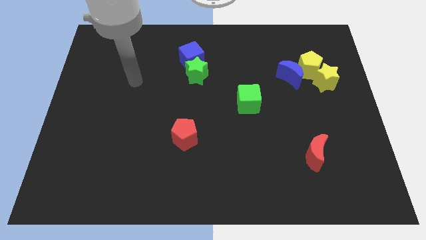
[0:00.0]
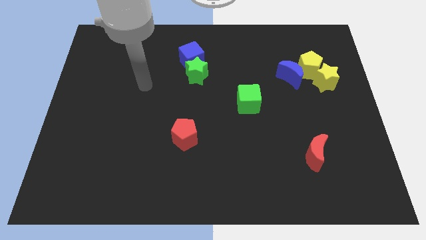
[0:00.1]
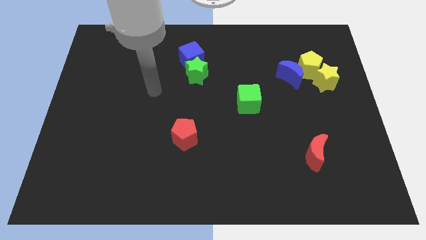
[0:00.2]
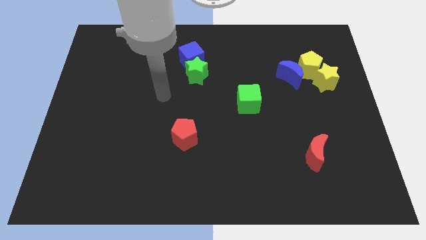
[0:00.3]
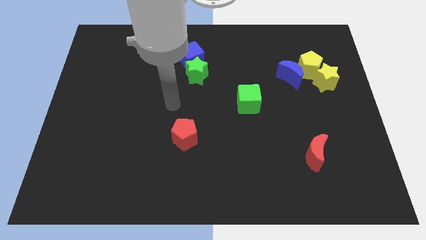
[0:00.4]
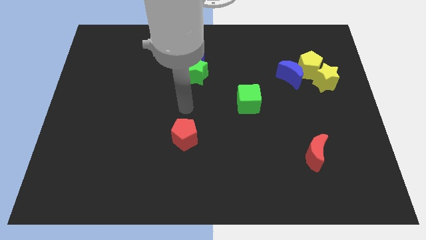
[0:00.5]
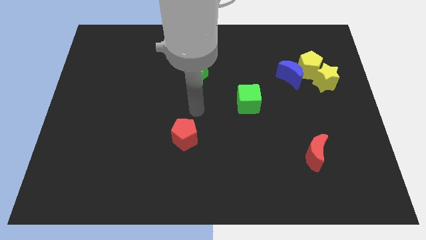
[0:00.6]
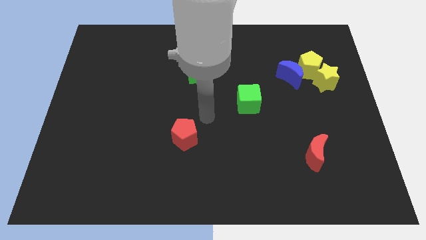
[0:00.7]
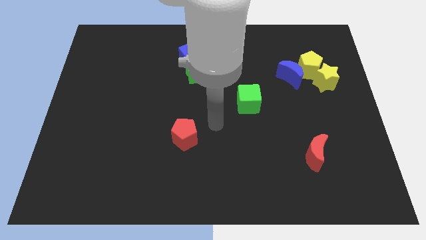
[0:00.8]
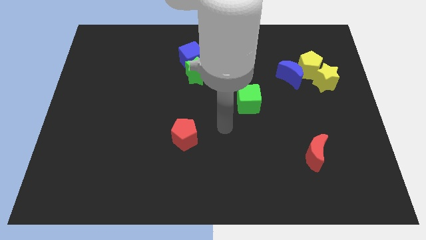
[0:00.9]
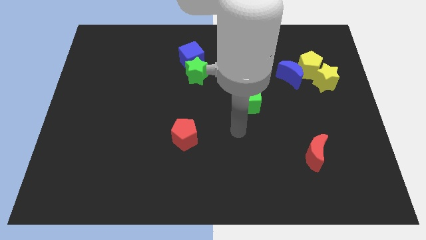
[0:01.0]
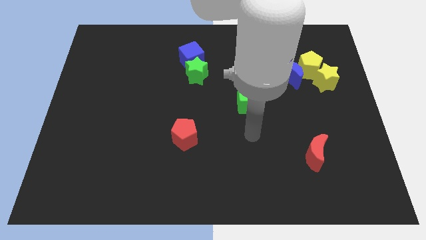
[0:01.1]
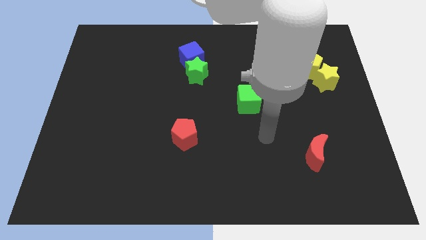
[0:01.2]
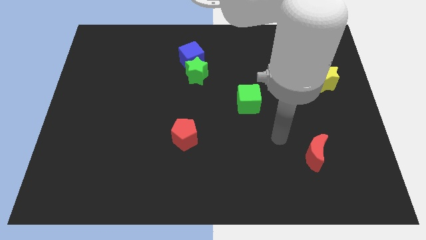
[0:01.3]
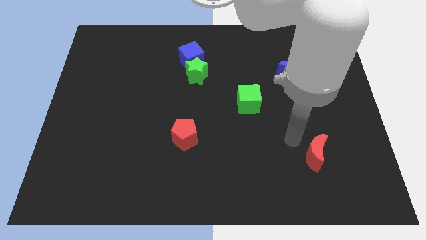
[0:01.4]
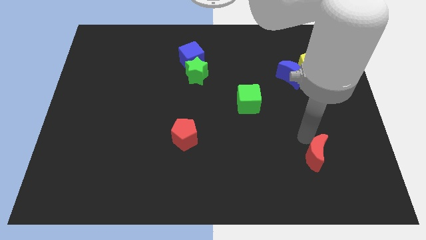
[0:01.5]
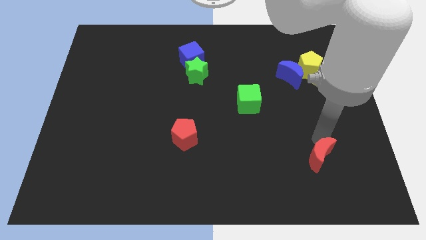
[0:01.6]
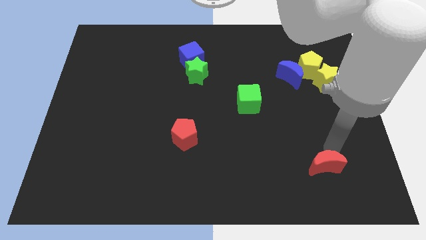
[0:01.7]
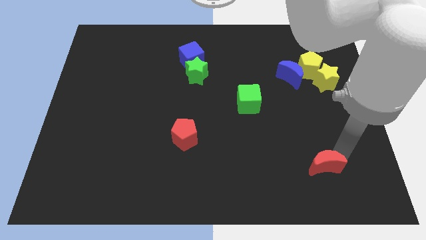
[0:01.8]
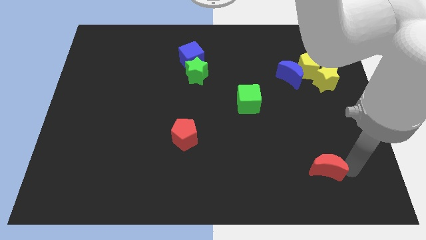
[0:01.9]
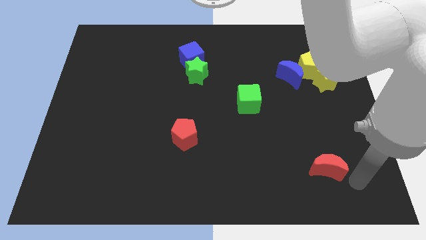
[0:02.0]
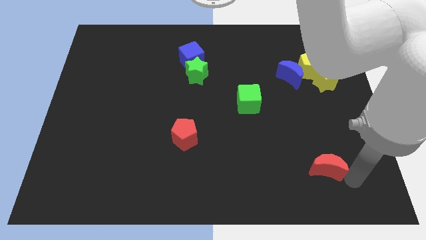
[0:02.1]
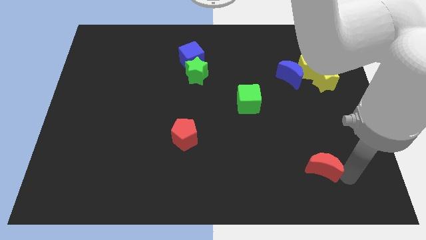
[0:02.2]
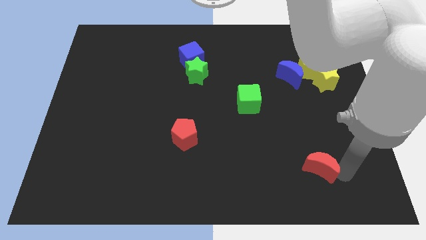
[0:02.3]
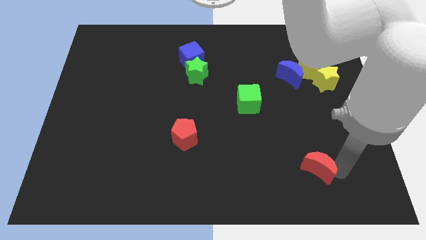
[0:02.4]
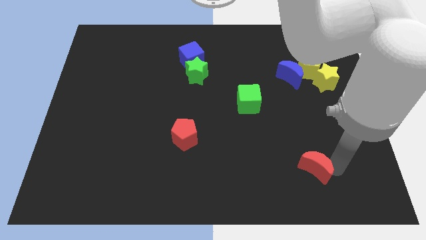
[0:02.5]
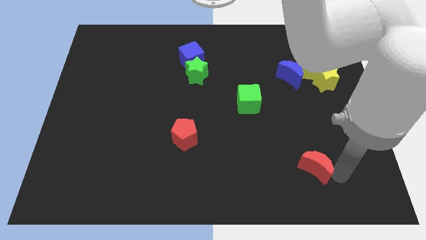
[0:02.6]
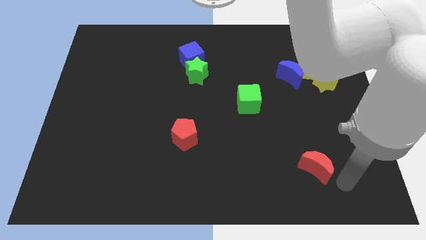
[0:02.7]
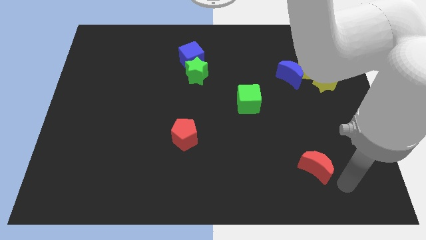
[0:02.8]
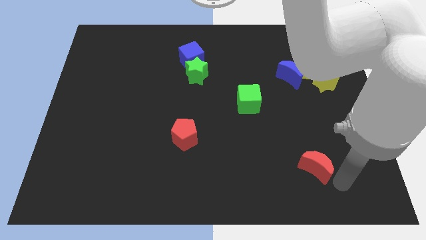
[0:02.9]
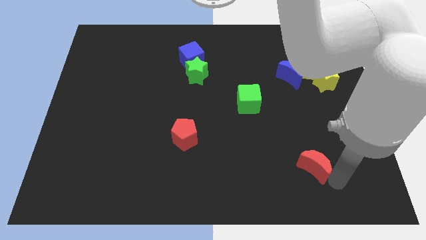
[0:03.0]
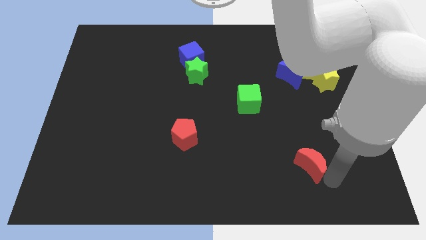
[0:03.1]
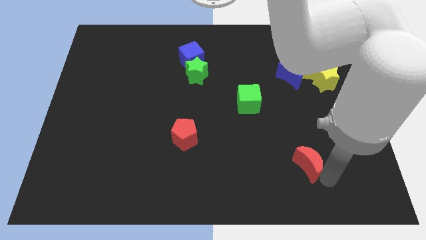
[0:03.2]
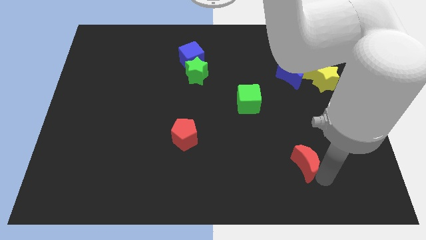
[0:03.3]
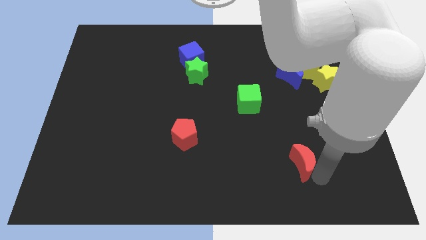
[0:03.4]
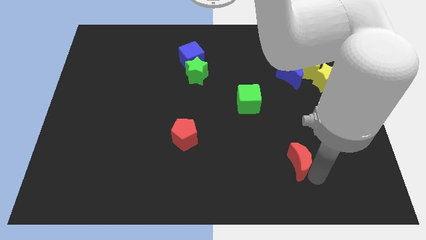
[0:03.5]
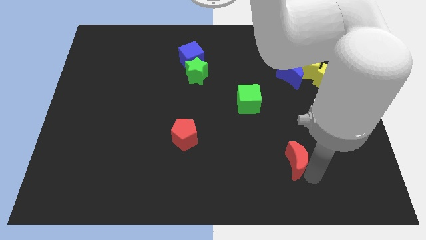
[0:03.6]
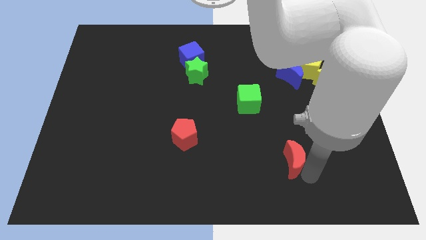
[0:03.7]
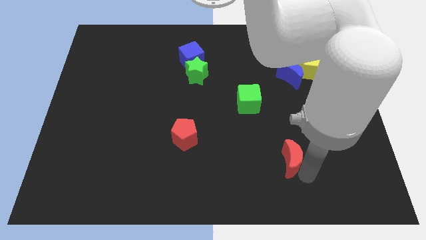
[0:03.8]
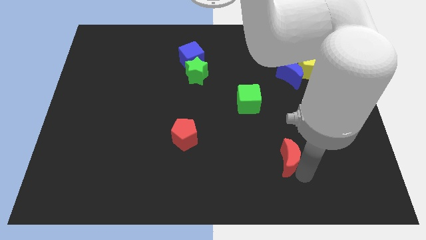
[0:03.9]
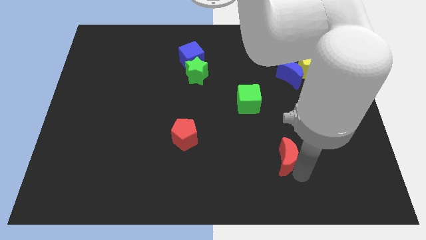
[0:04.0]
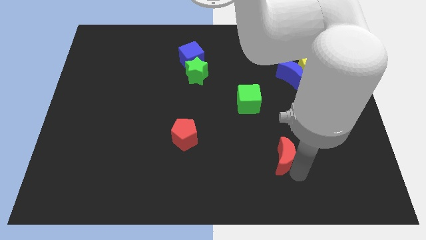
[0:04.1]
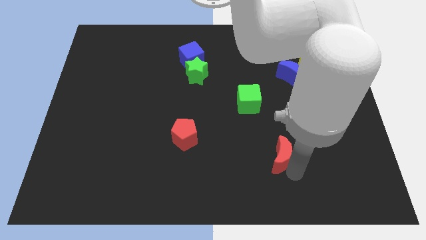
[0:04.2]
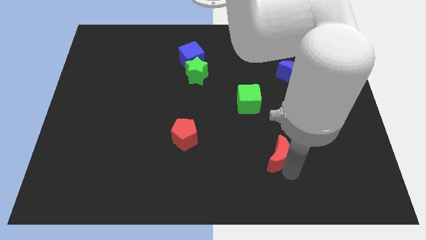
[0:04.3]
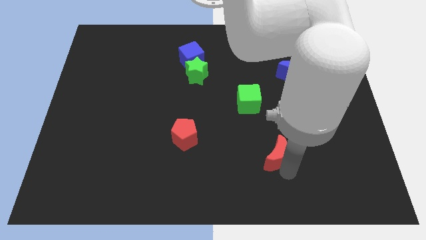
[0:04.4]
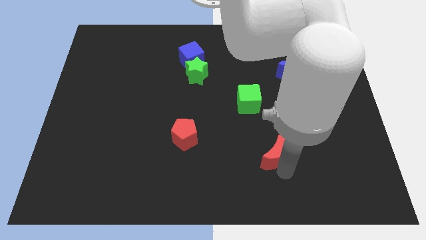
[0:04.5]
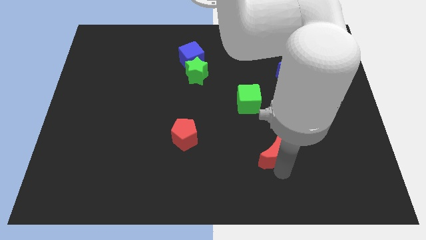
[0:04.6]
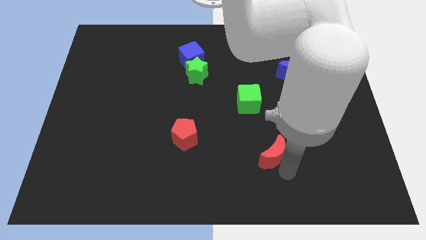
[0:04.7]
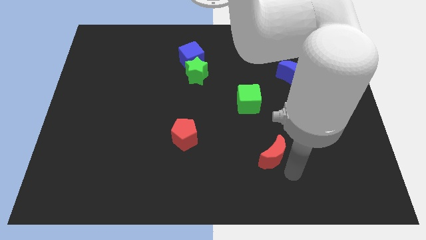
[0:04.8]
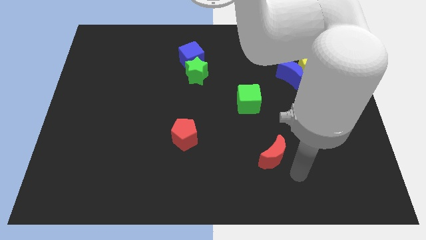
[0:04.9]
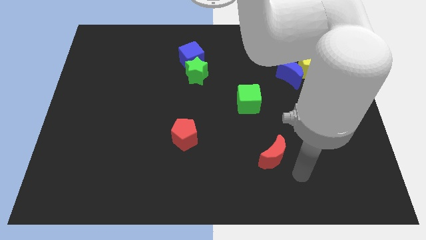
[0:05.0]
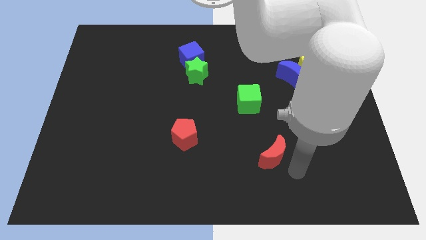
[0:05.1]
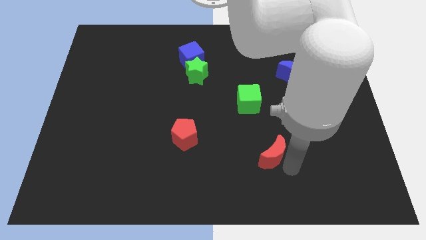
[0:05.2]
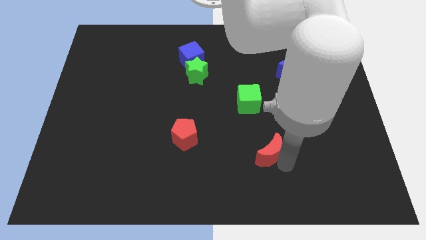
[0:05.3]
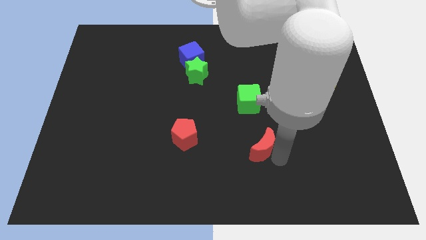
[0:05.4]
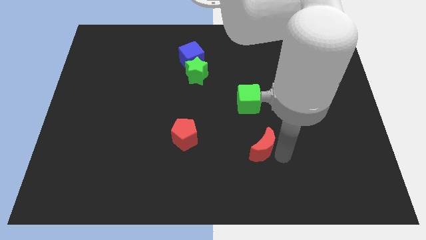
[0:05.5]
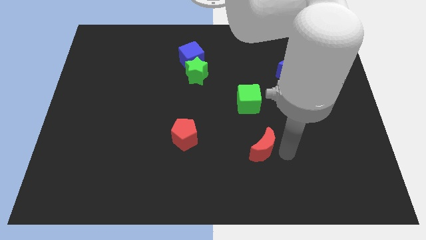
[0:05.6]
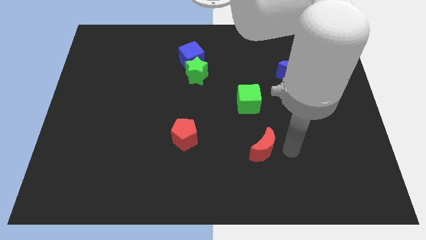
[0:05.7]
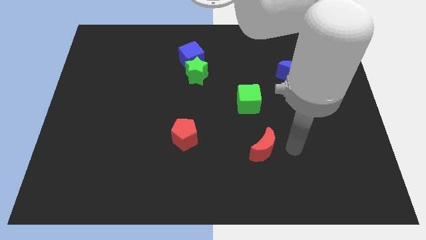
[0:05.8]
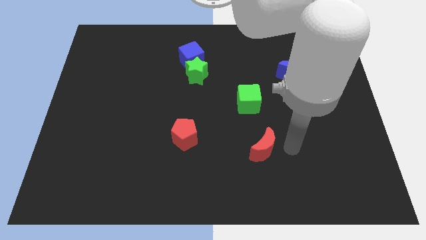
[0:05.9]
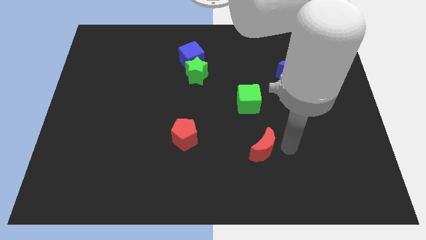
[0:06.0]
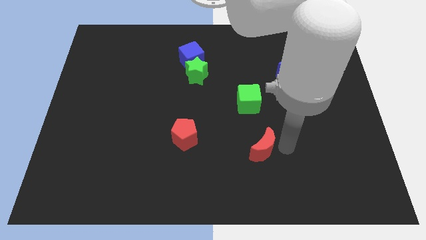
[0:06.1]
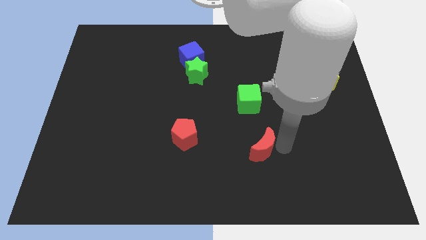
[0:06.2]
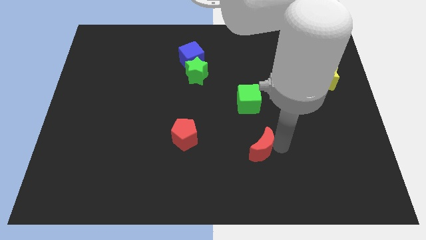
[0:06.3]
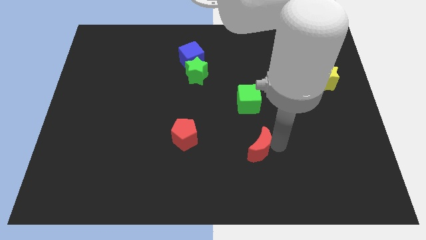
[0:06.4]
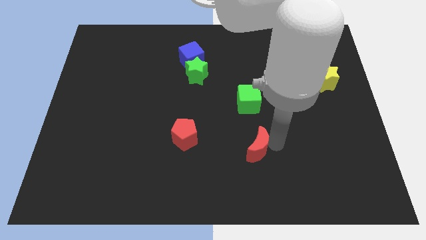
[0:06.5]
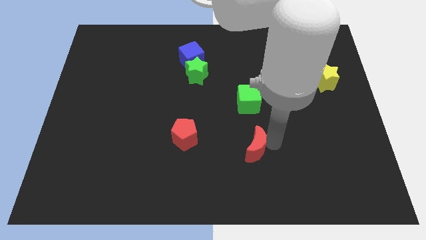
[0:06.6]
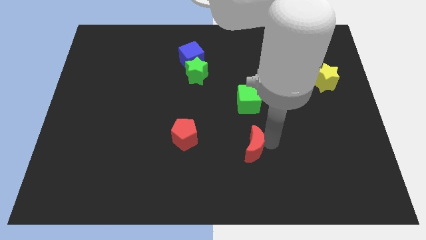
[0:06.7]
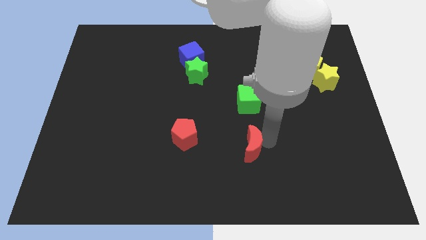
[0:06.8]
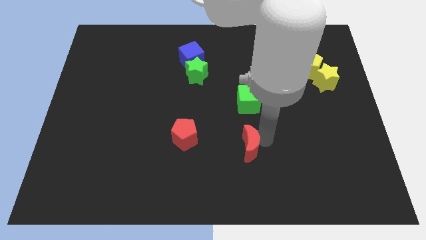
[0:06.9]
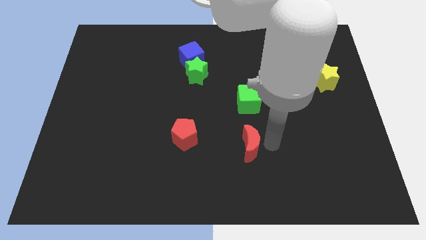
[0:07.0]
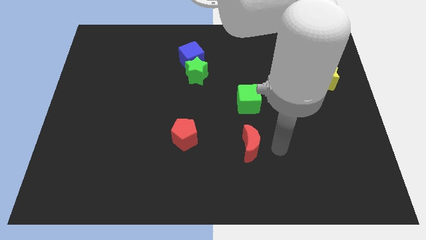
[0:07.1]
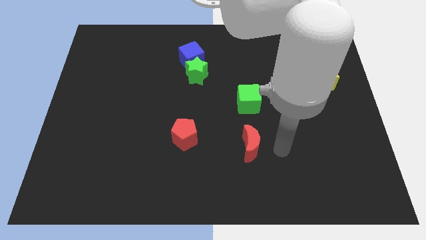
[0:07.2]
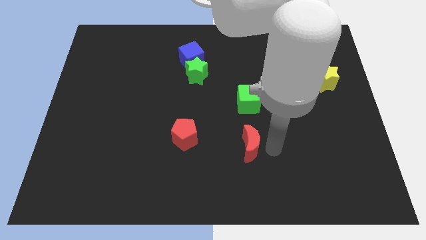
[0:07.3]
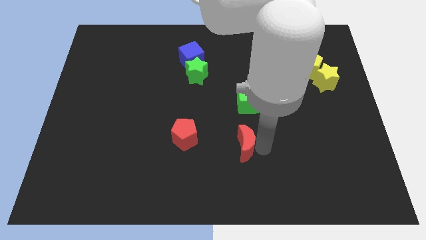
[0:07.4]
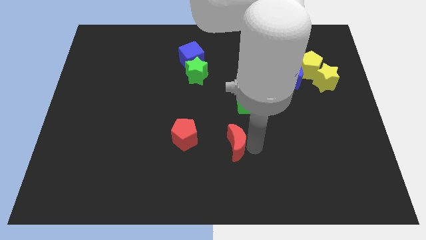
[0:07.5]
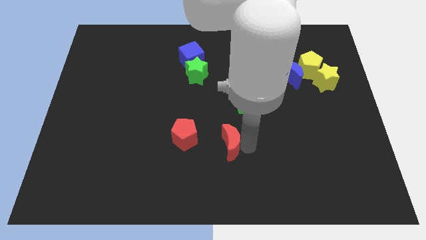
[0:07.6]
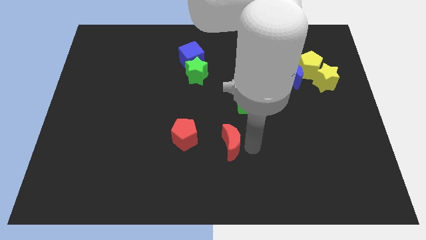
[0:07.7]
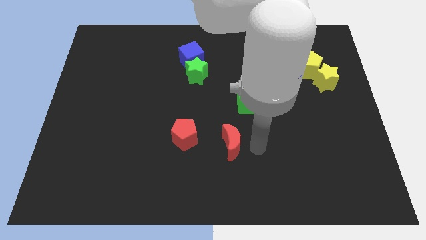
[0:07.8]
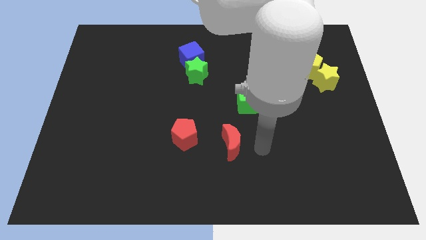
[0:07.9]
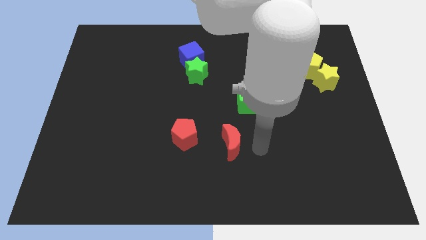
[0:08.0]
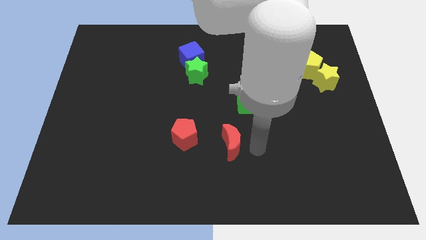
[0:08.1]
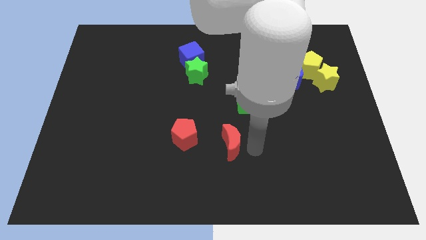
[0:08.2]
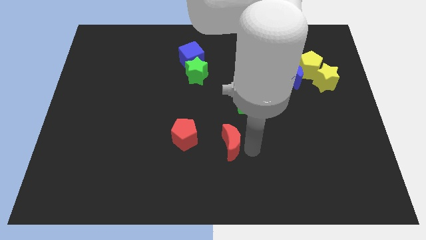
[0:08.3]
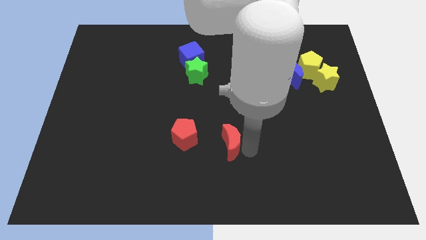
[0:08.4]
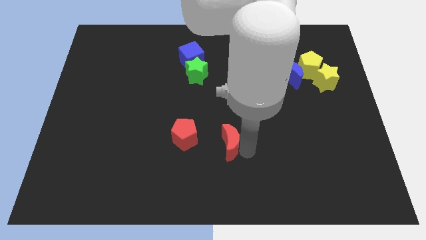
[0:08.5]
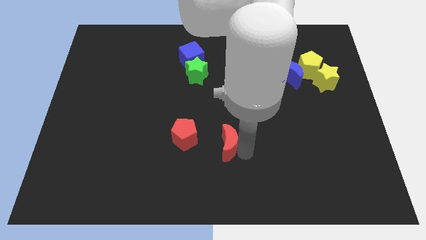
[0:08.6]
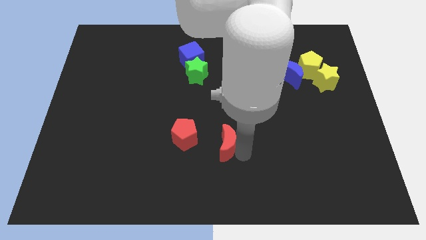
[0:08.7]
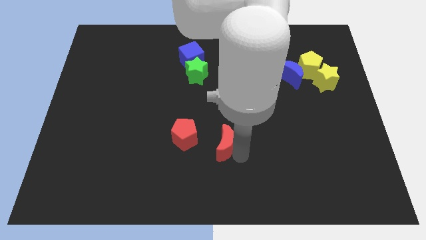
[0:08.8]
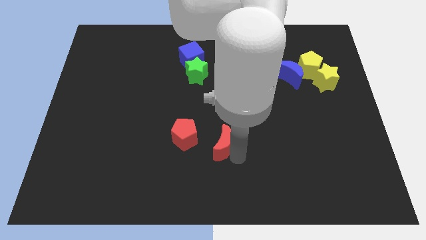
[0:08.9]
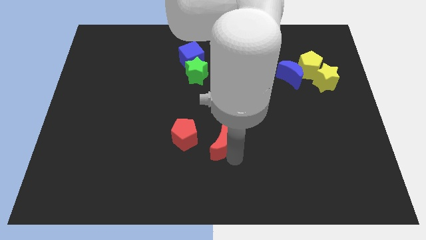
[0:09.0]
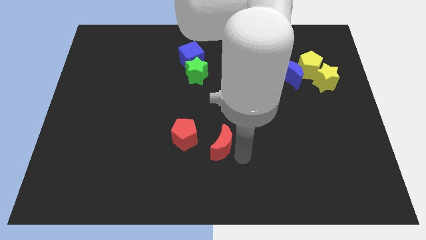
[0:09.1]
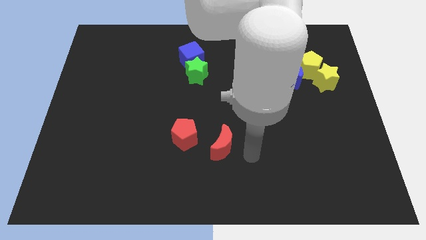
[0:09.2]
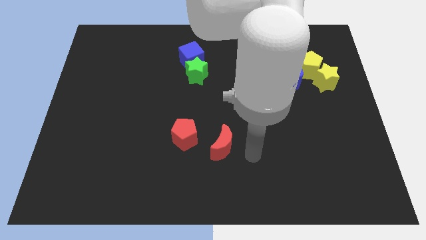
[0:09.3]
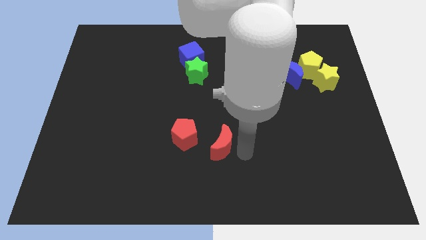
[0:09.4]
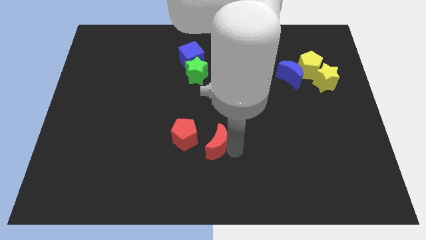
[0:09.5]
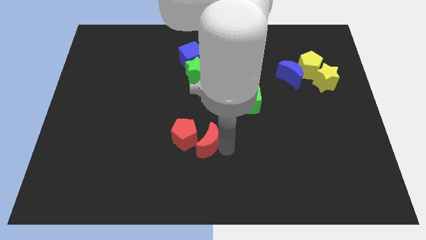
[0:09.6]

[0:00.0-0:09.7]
push the red moon towards the red pentagon
